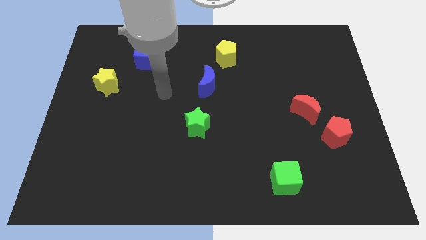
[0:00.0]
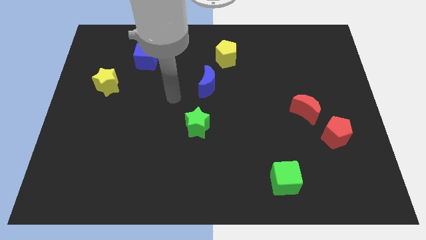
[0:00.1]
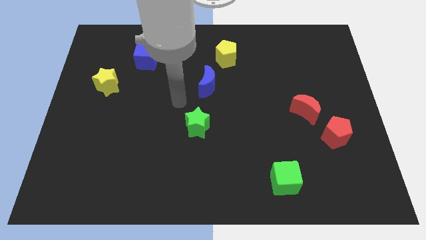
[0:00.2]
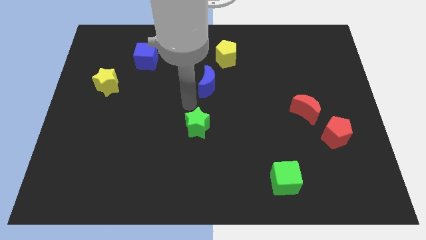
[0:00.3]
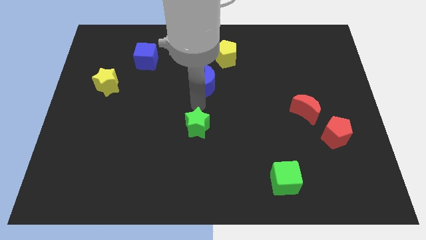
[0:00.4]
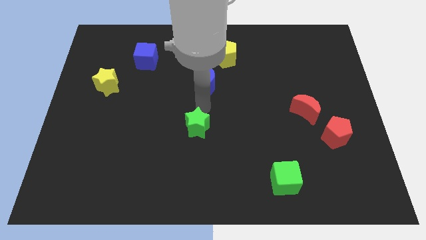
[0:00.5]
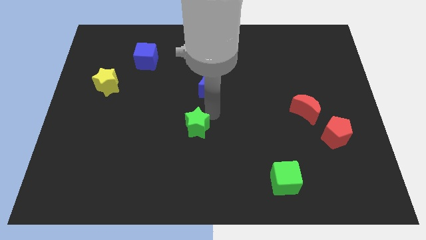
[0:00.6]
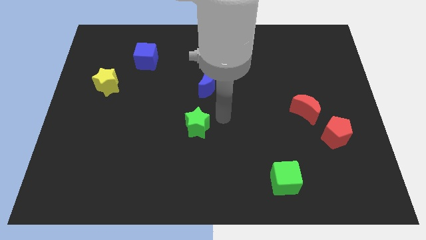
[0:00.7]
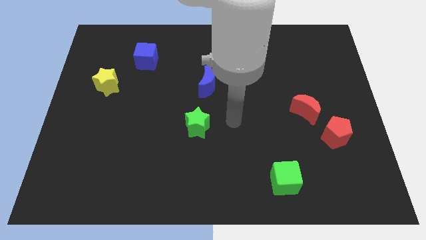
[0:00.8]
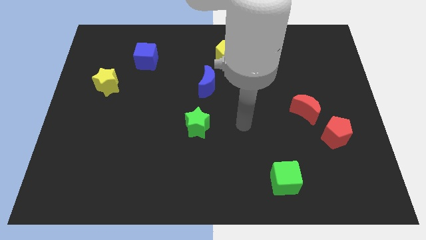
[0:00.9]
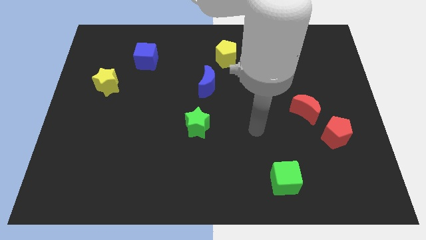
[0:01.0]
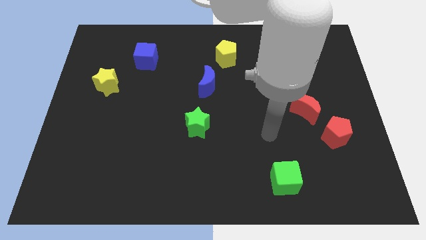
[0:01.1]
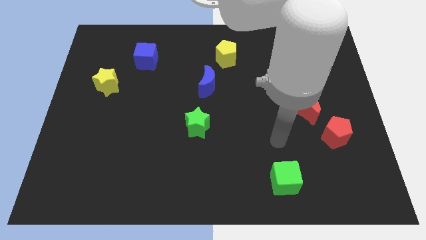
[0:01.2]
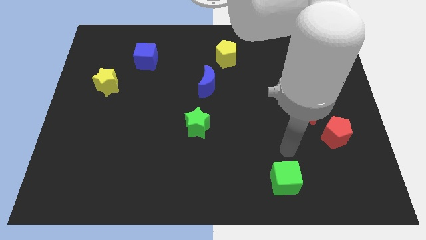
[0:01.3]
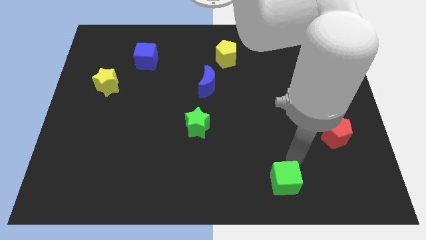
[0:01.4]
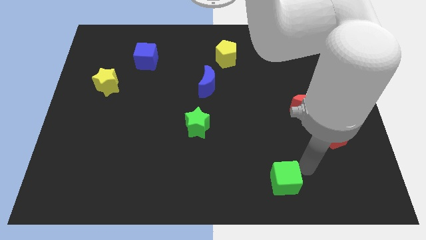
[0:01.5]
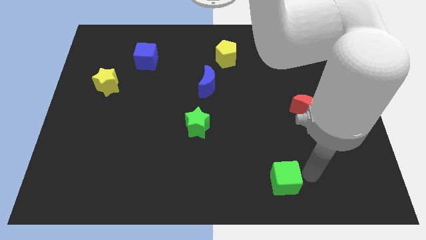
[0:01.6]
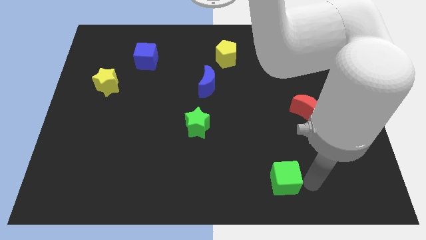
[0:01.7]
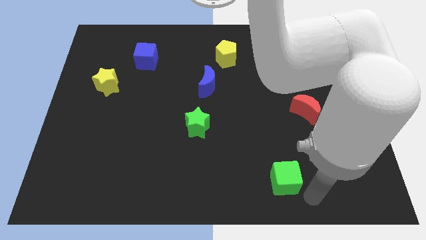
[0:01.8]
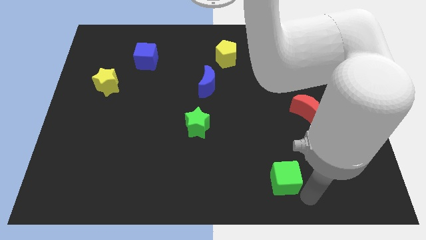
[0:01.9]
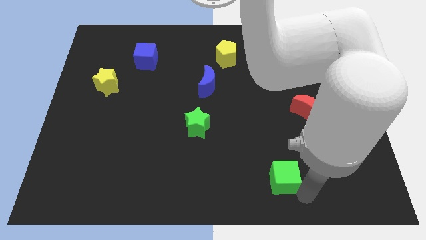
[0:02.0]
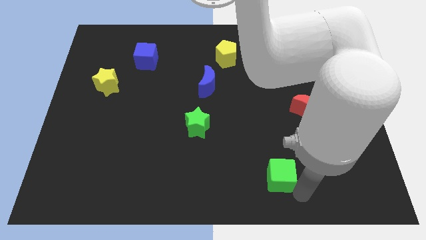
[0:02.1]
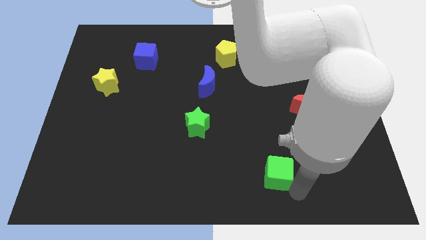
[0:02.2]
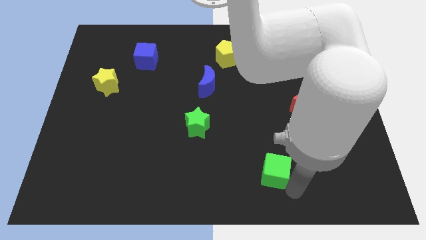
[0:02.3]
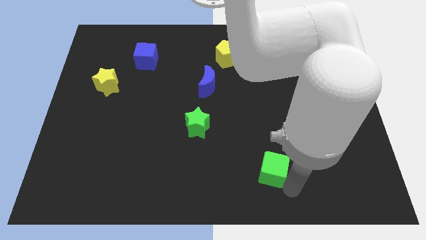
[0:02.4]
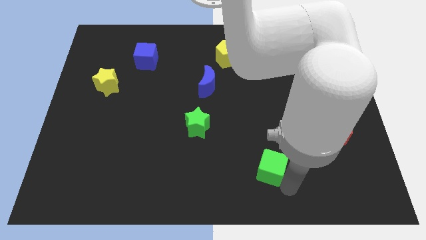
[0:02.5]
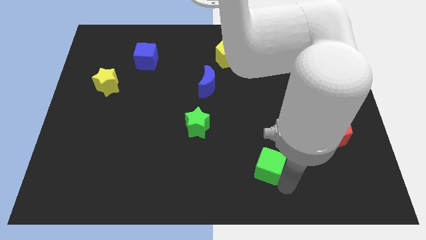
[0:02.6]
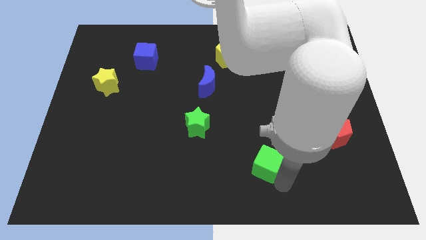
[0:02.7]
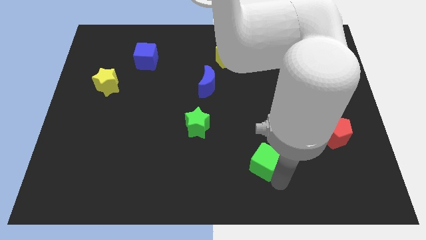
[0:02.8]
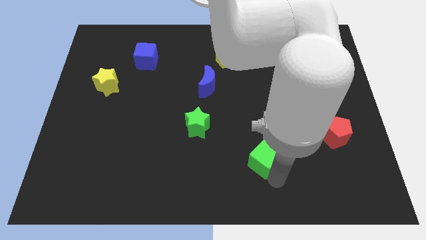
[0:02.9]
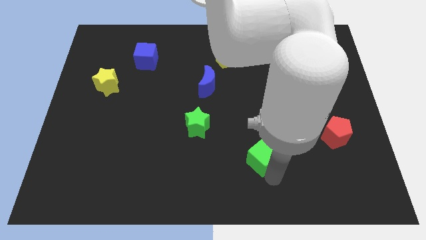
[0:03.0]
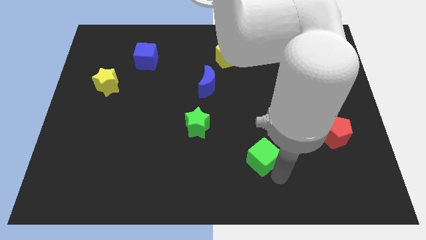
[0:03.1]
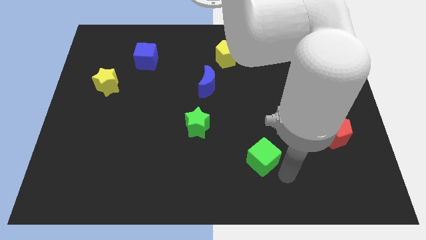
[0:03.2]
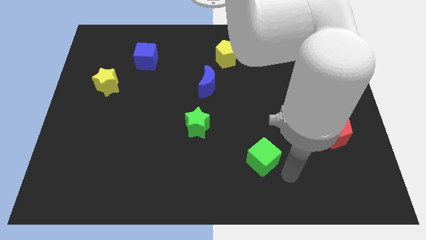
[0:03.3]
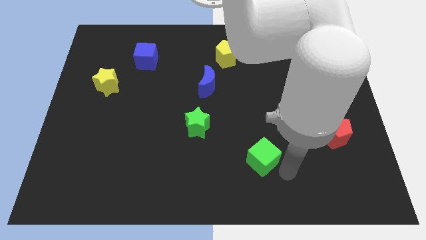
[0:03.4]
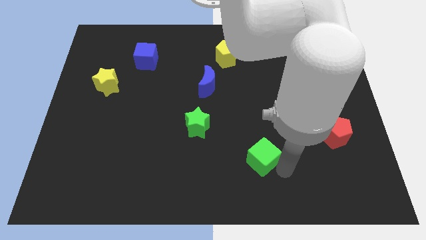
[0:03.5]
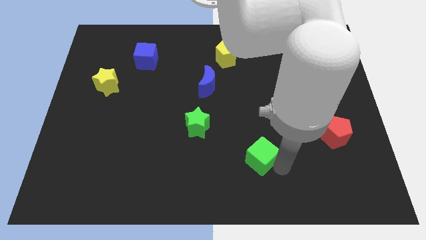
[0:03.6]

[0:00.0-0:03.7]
slide the green cube upwards and to the left diagonally a little

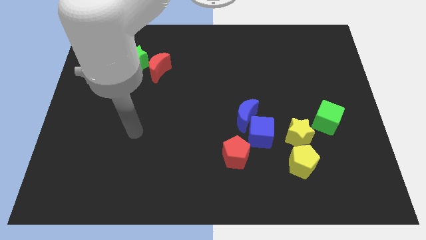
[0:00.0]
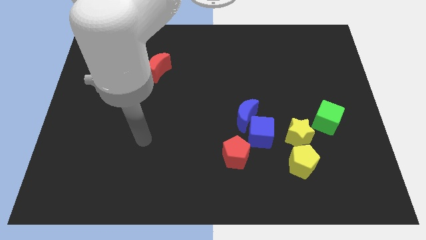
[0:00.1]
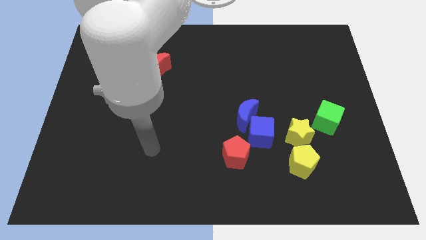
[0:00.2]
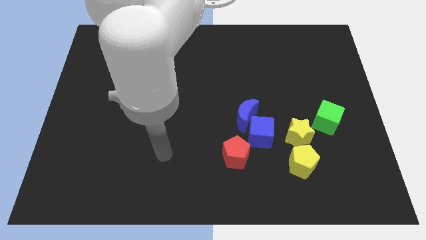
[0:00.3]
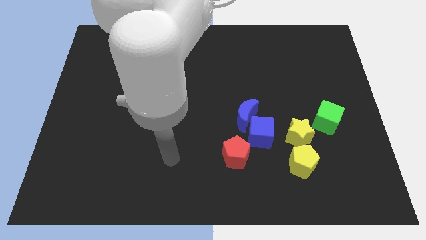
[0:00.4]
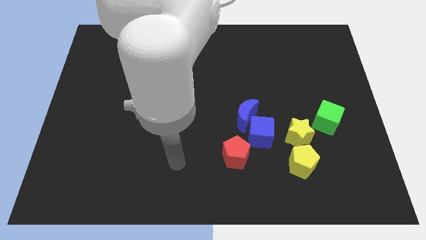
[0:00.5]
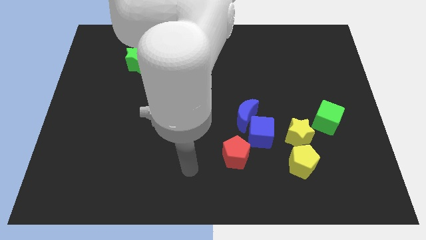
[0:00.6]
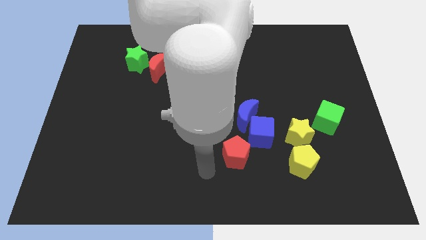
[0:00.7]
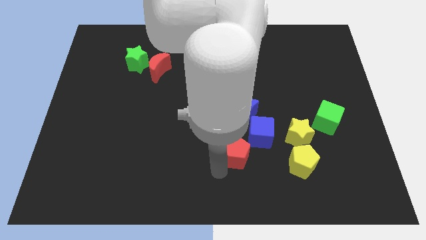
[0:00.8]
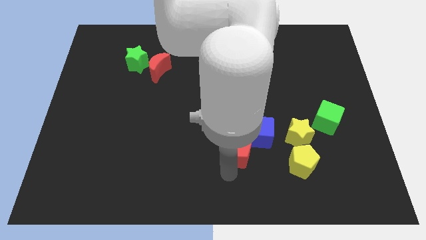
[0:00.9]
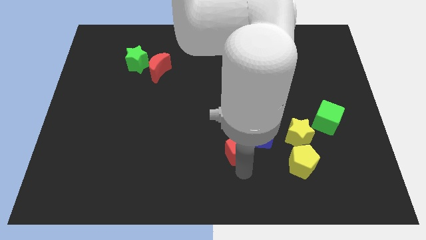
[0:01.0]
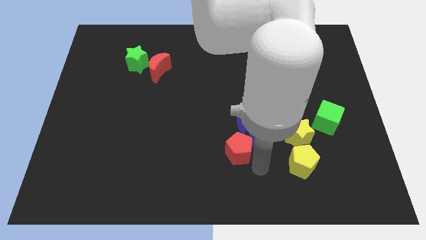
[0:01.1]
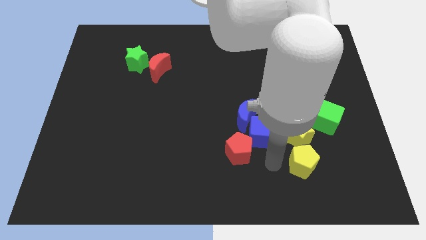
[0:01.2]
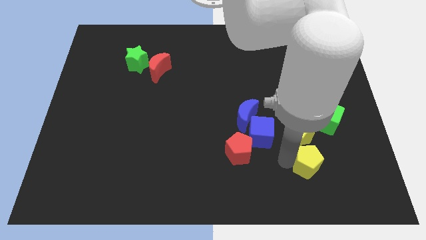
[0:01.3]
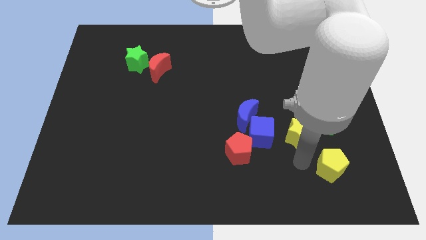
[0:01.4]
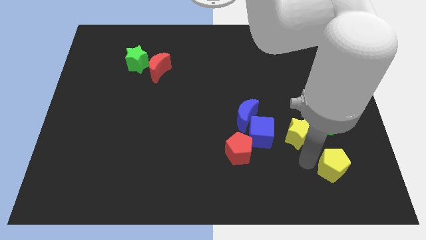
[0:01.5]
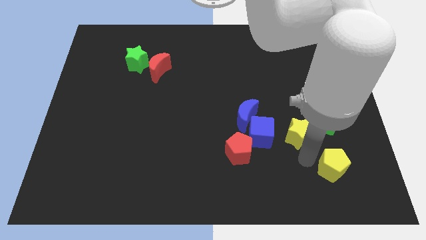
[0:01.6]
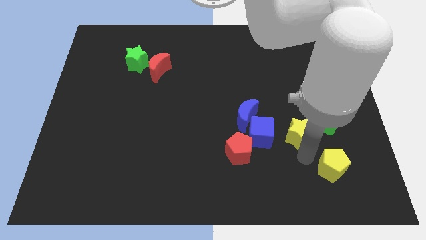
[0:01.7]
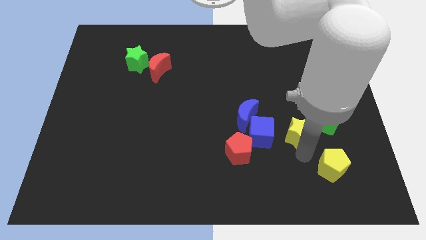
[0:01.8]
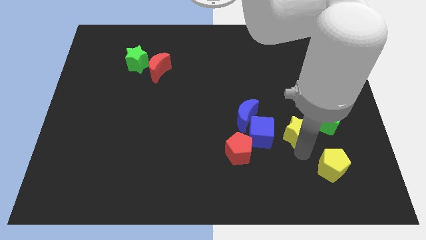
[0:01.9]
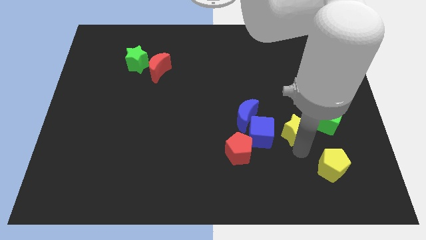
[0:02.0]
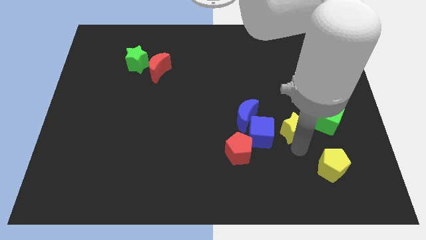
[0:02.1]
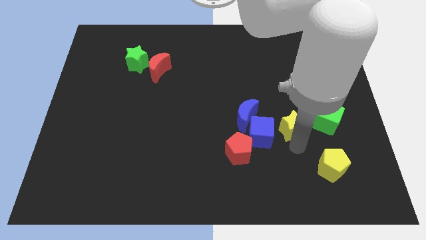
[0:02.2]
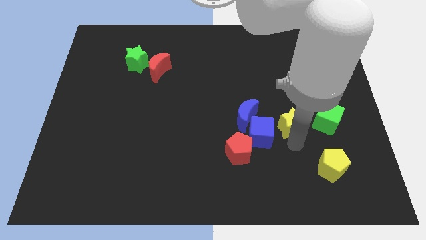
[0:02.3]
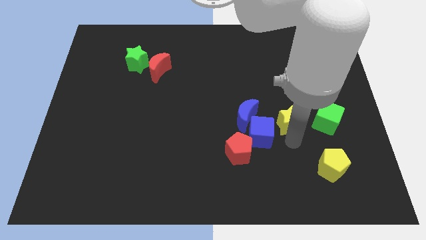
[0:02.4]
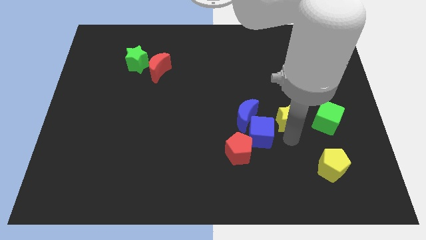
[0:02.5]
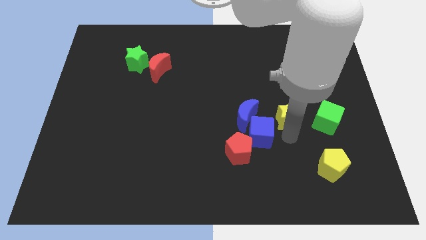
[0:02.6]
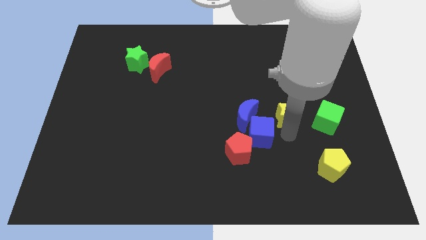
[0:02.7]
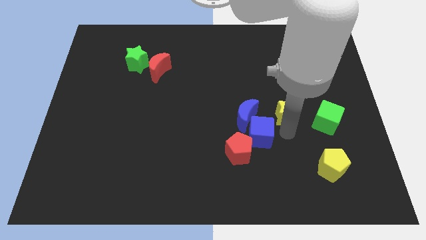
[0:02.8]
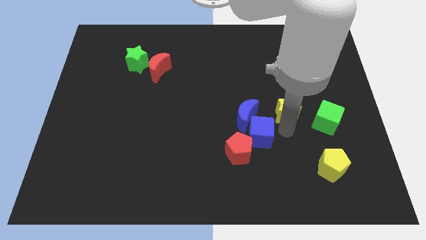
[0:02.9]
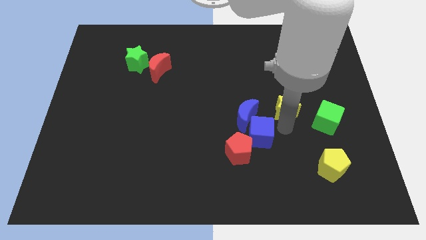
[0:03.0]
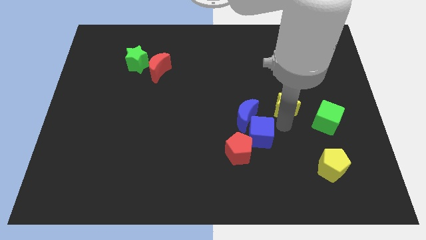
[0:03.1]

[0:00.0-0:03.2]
slightly move the yellow star upwards

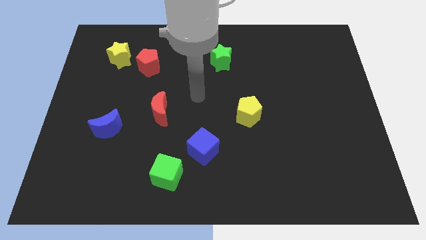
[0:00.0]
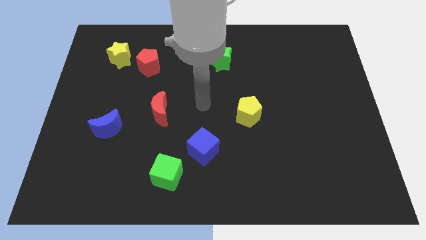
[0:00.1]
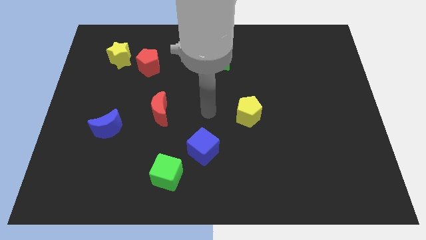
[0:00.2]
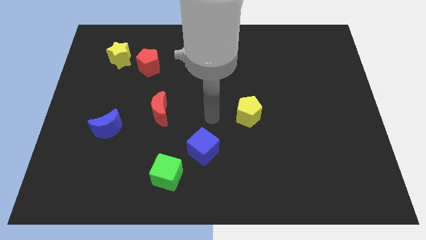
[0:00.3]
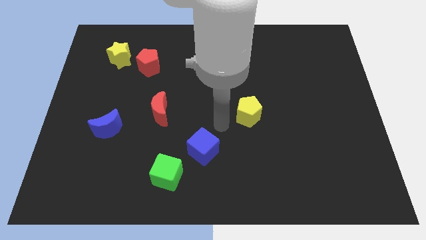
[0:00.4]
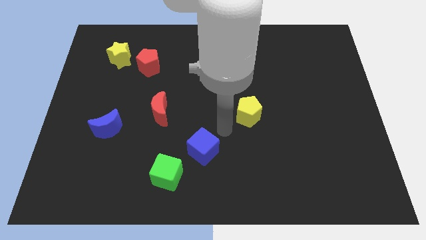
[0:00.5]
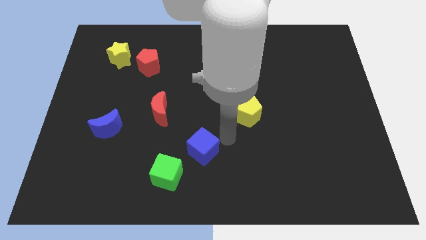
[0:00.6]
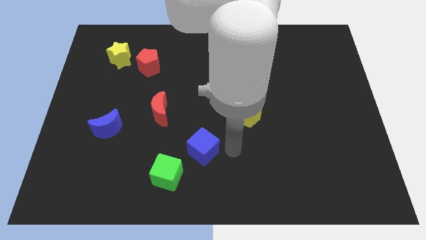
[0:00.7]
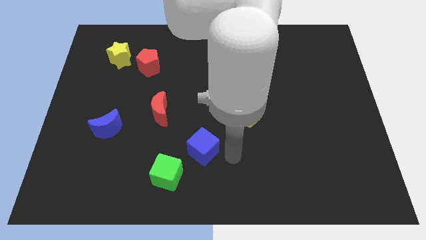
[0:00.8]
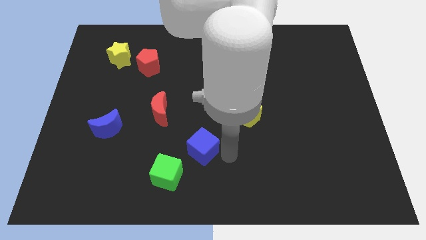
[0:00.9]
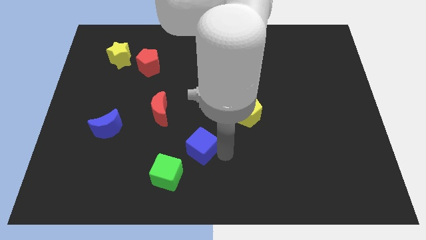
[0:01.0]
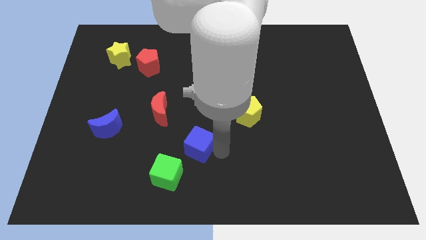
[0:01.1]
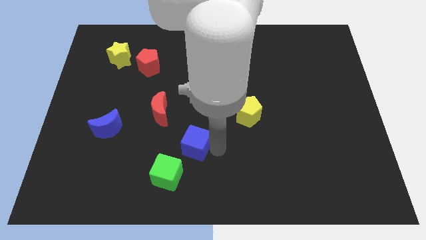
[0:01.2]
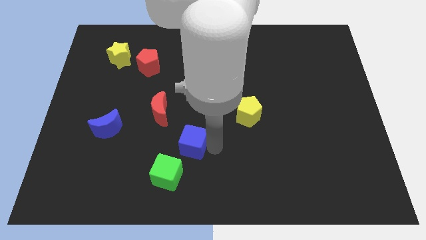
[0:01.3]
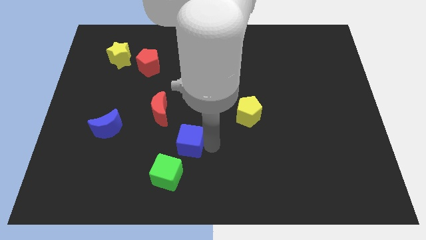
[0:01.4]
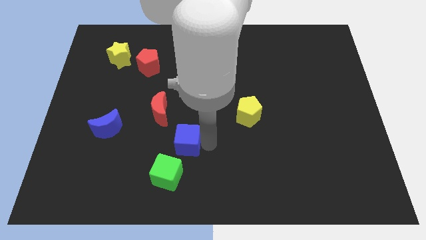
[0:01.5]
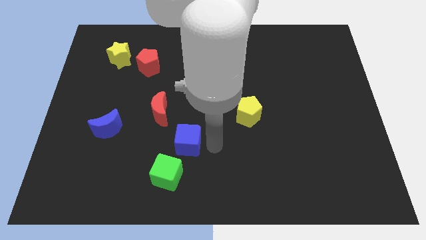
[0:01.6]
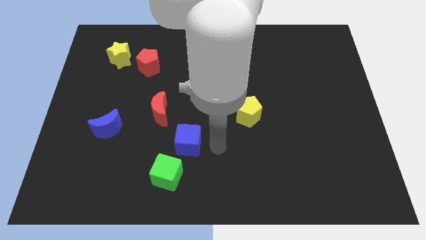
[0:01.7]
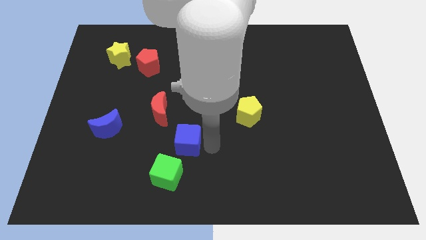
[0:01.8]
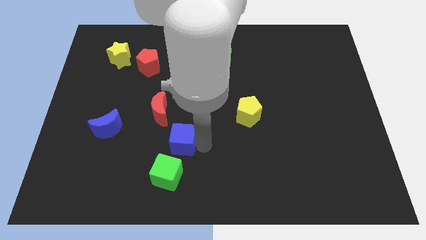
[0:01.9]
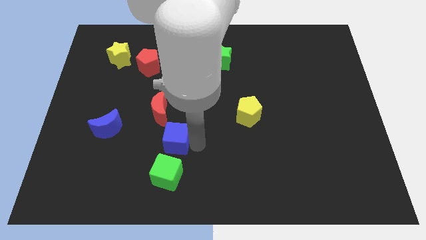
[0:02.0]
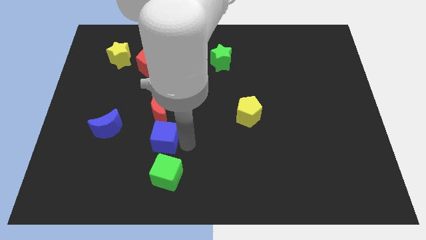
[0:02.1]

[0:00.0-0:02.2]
slightly slide the blue cube upwards and to the left
